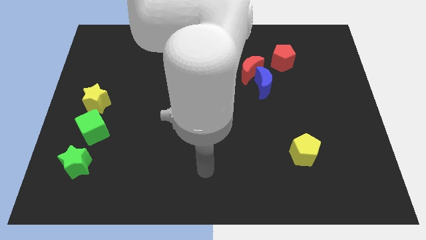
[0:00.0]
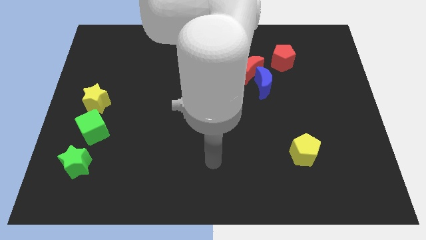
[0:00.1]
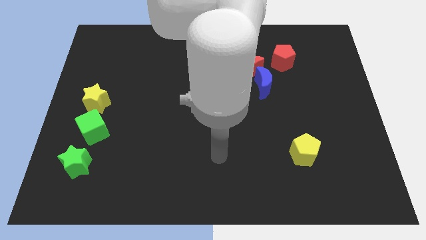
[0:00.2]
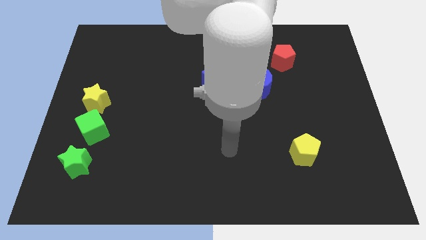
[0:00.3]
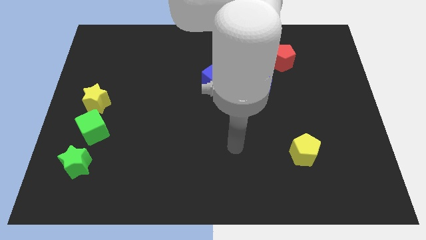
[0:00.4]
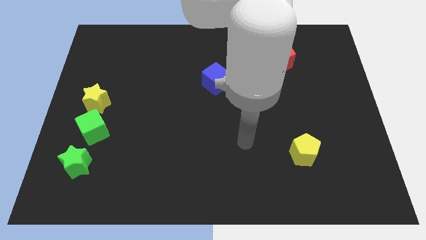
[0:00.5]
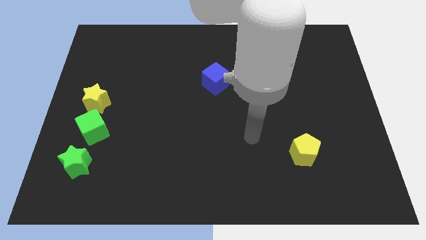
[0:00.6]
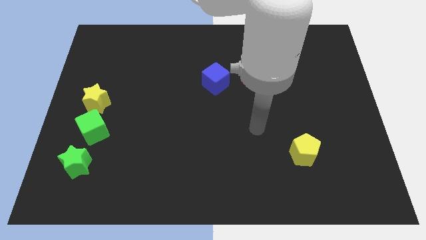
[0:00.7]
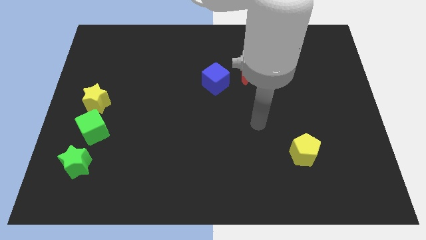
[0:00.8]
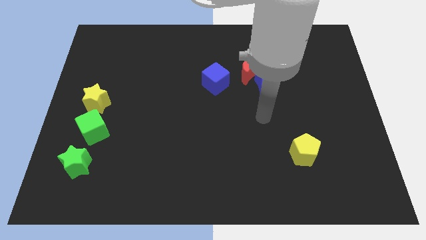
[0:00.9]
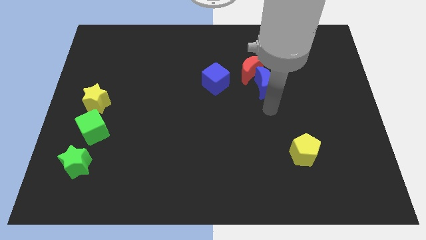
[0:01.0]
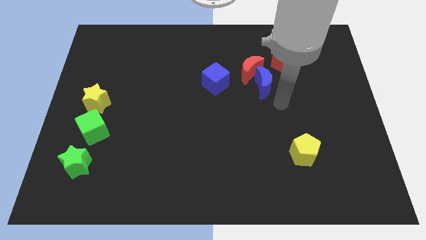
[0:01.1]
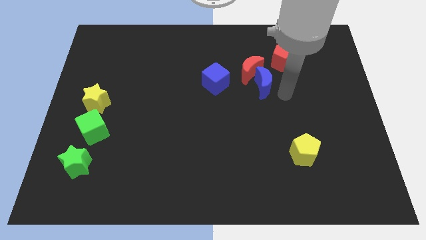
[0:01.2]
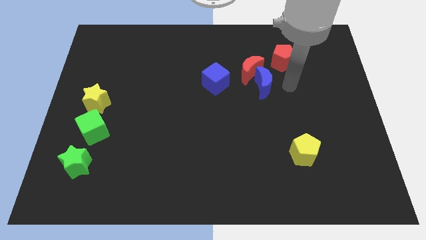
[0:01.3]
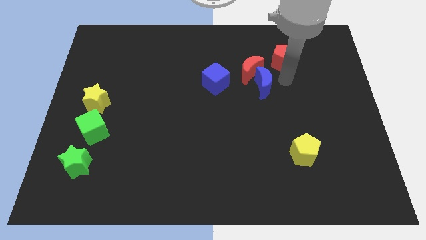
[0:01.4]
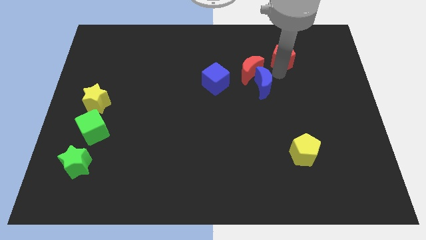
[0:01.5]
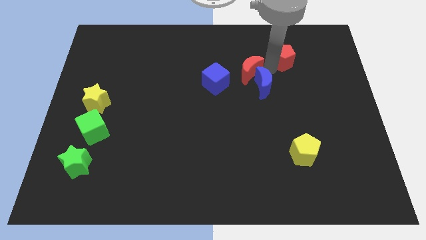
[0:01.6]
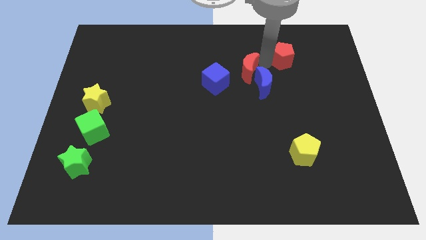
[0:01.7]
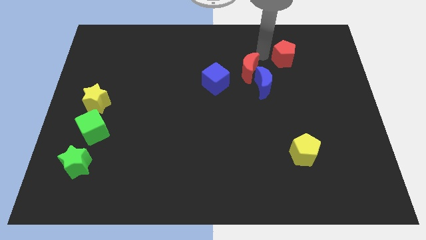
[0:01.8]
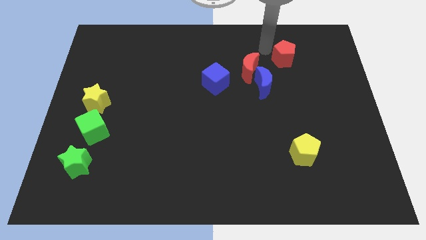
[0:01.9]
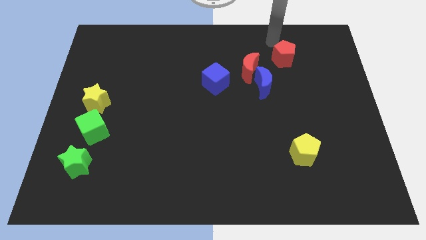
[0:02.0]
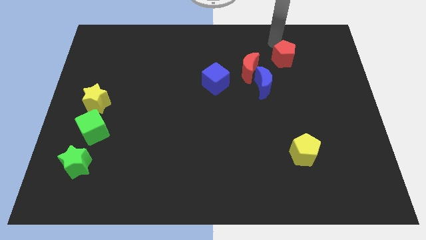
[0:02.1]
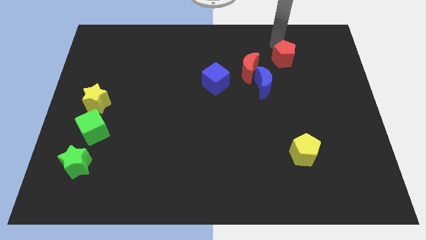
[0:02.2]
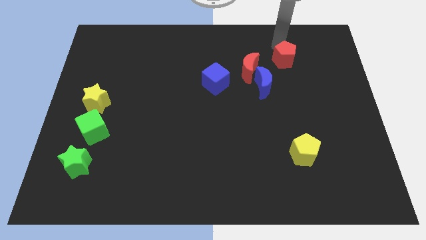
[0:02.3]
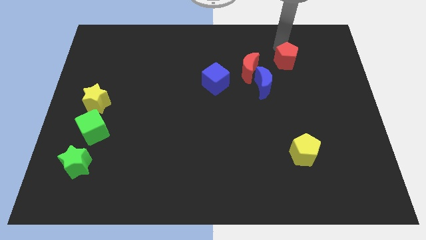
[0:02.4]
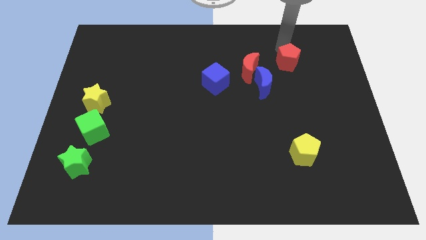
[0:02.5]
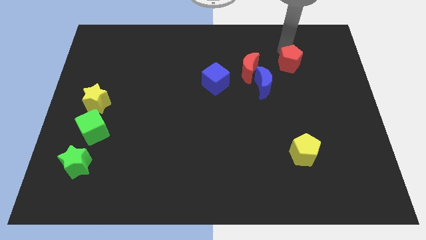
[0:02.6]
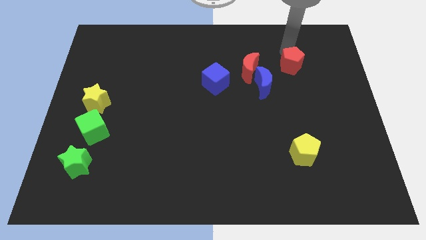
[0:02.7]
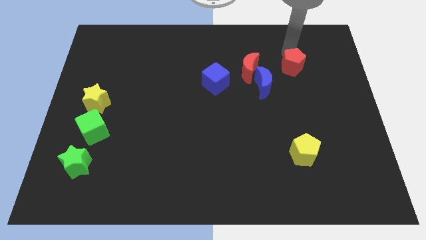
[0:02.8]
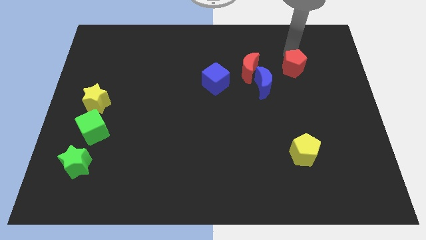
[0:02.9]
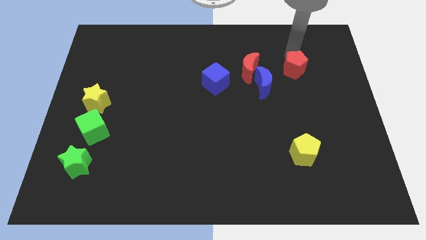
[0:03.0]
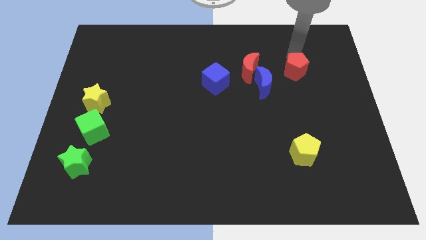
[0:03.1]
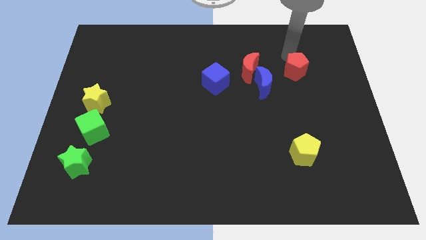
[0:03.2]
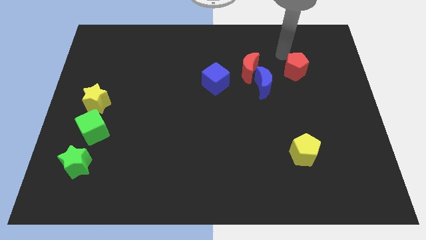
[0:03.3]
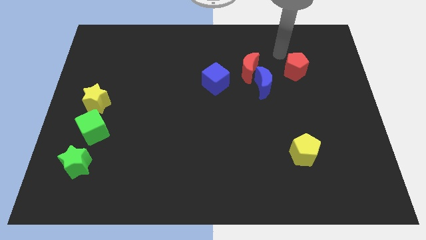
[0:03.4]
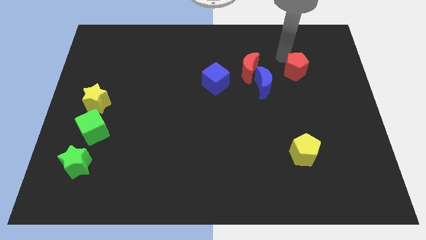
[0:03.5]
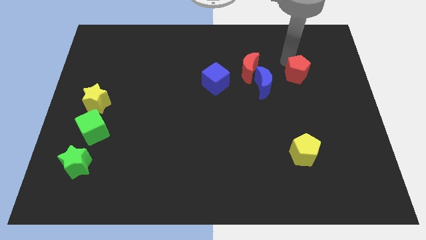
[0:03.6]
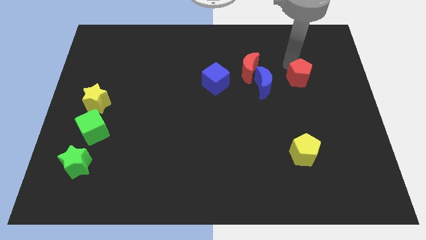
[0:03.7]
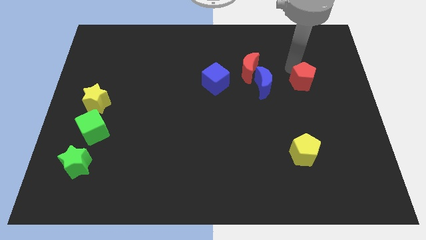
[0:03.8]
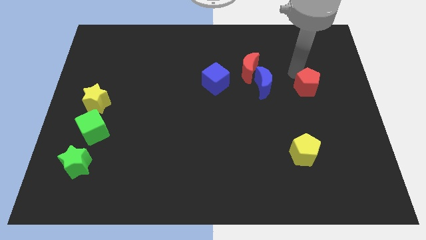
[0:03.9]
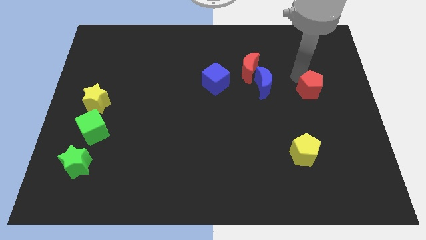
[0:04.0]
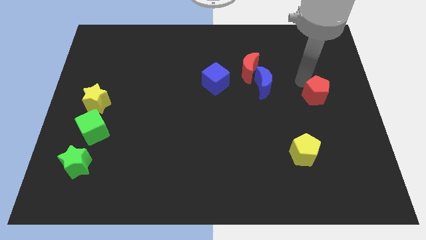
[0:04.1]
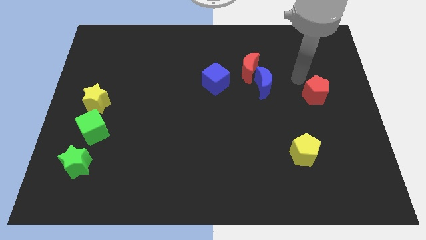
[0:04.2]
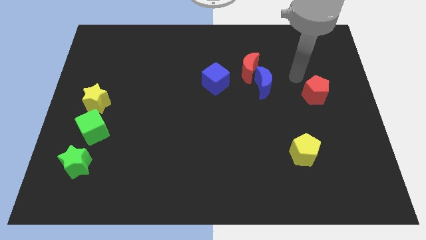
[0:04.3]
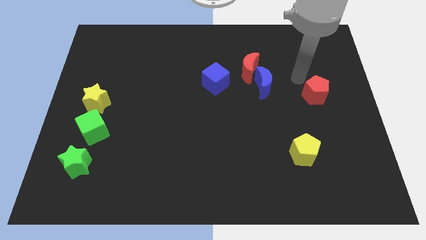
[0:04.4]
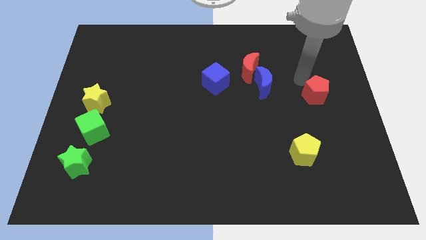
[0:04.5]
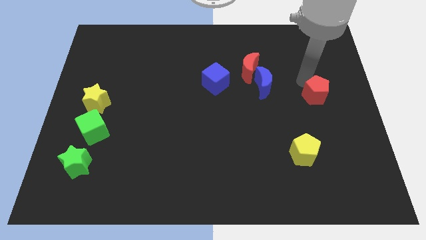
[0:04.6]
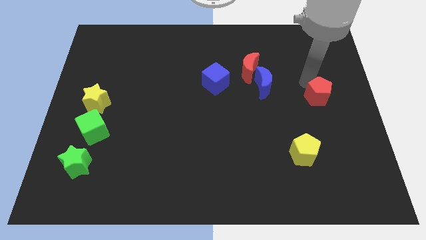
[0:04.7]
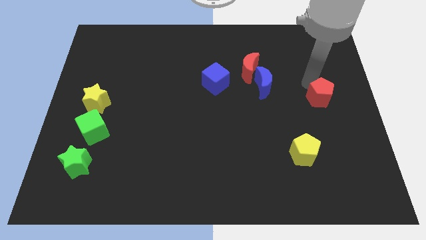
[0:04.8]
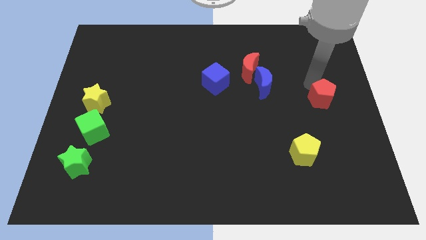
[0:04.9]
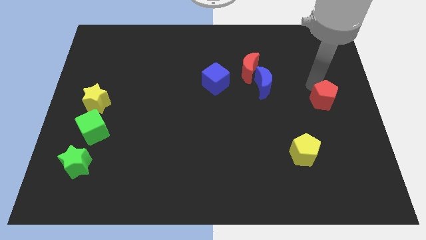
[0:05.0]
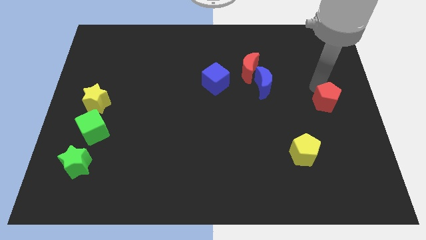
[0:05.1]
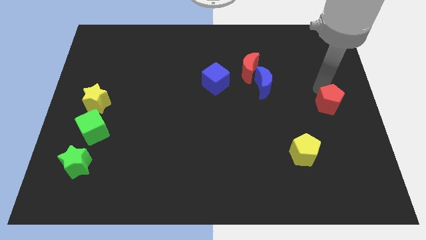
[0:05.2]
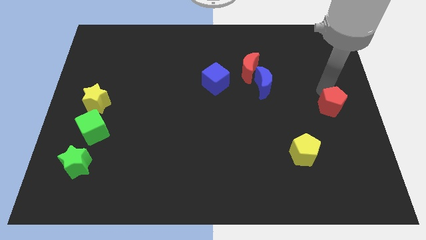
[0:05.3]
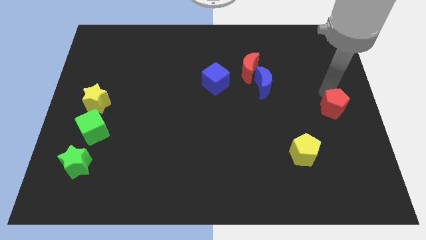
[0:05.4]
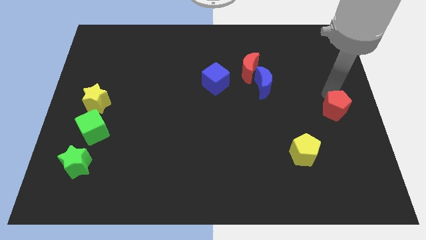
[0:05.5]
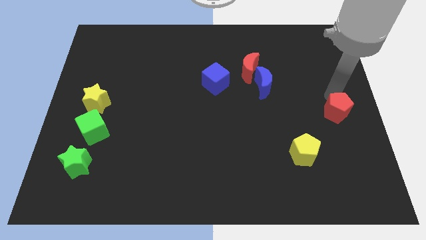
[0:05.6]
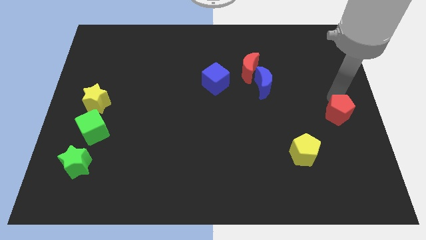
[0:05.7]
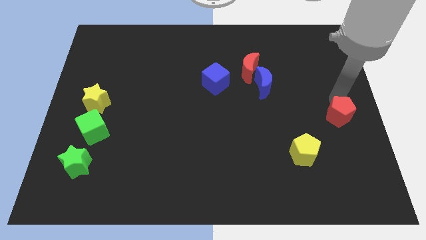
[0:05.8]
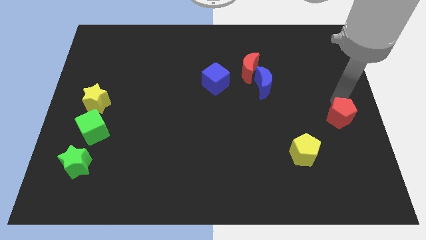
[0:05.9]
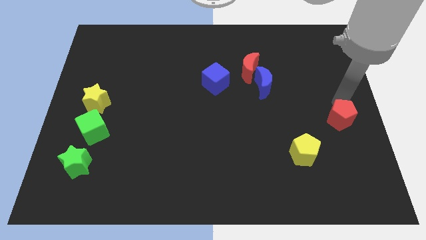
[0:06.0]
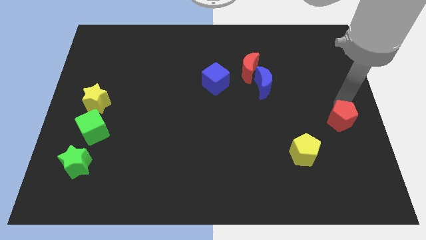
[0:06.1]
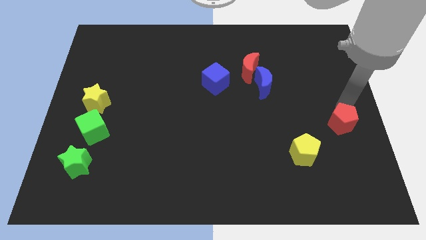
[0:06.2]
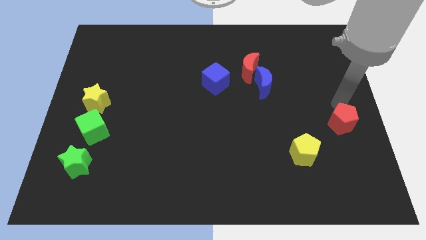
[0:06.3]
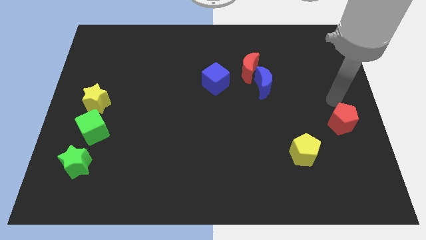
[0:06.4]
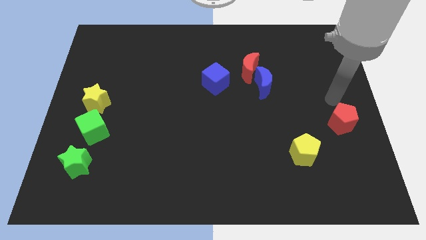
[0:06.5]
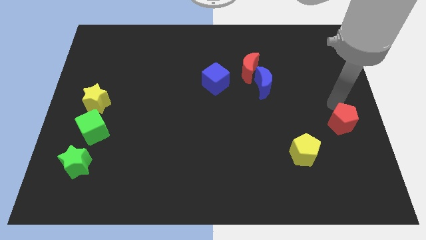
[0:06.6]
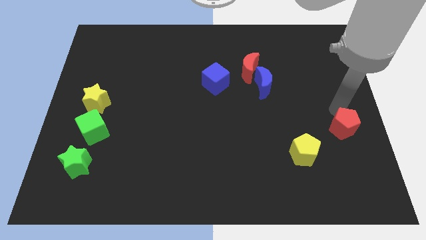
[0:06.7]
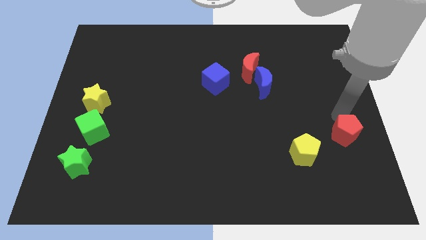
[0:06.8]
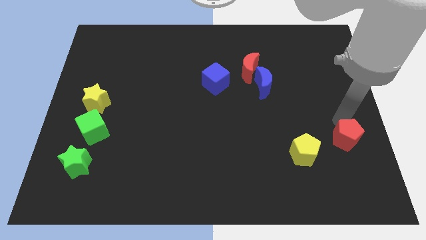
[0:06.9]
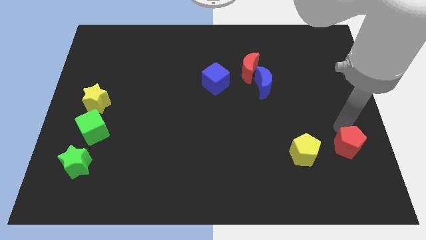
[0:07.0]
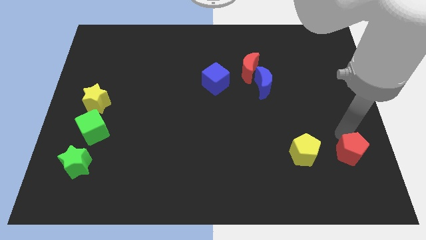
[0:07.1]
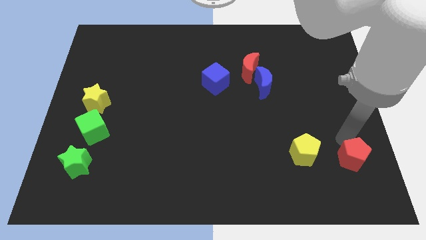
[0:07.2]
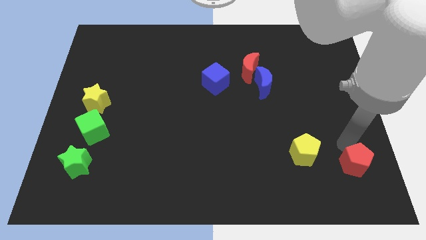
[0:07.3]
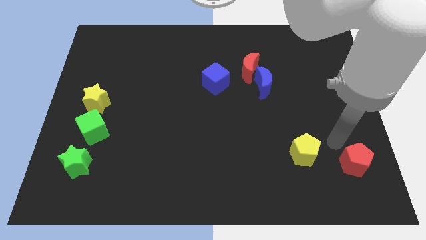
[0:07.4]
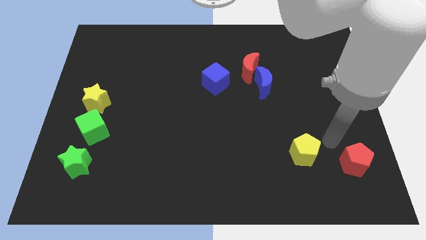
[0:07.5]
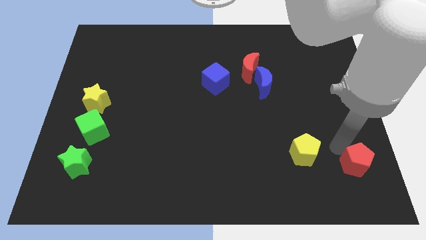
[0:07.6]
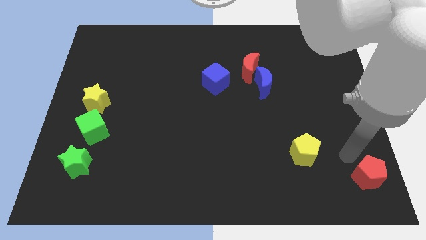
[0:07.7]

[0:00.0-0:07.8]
put the red pentagon to the lower right corner
